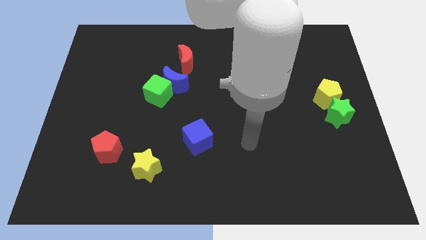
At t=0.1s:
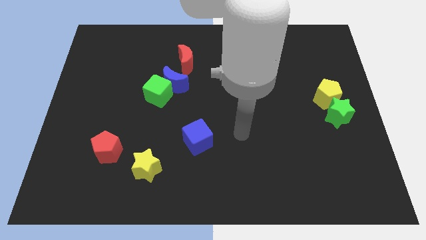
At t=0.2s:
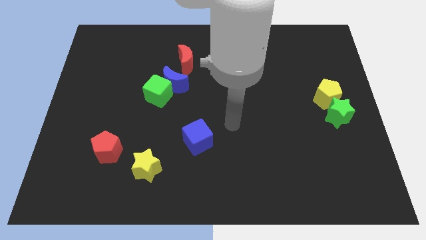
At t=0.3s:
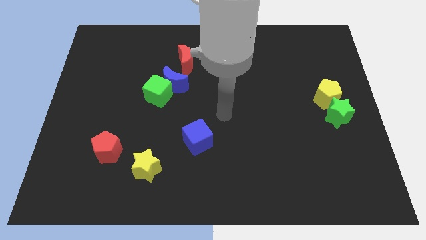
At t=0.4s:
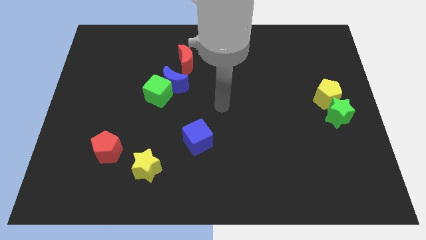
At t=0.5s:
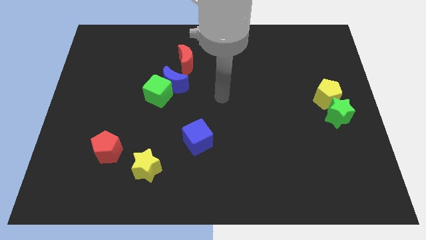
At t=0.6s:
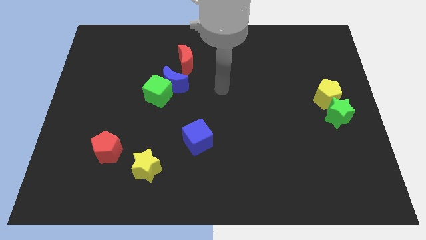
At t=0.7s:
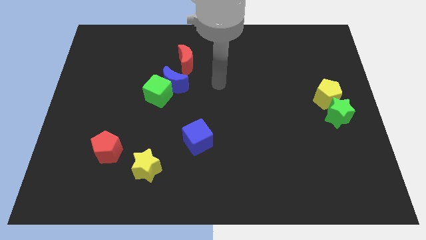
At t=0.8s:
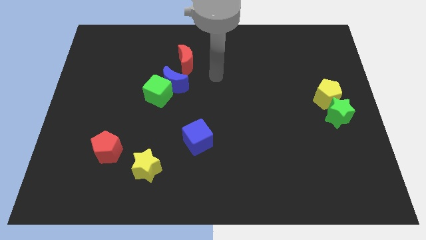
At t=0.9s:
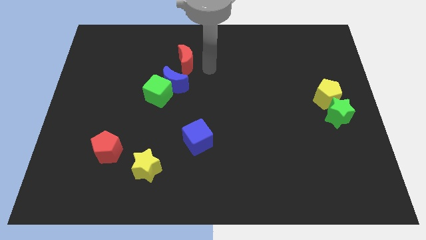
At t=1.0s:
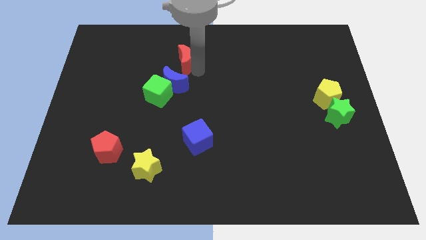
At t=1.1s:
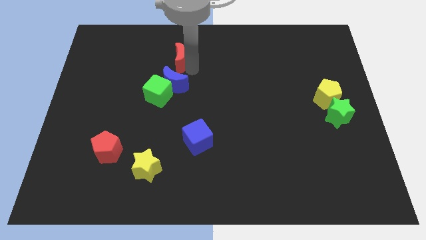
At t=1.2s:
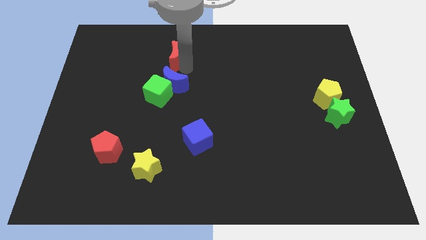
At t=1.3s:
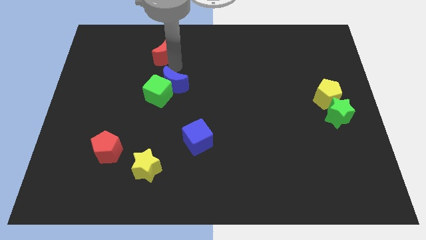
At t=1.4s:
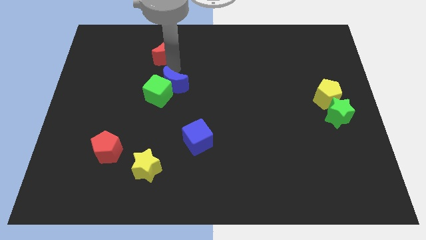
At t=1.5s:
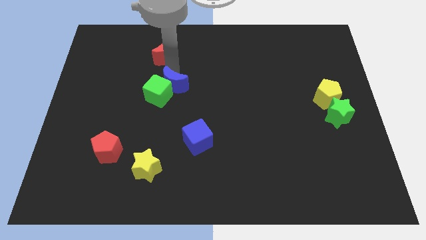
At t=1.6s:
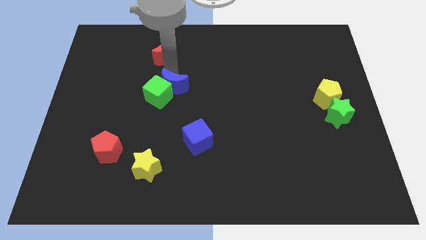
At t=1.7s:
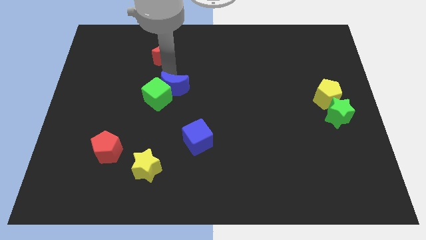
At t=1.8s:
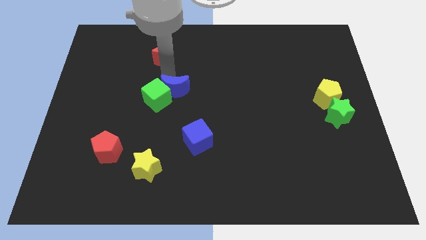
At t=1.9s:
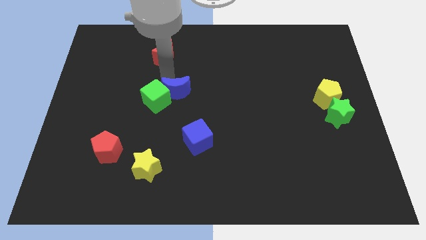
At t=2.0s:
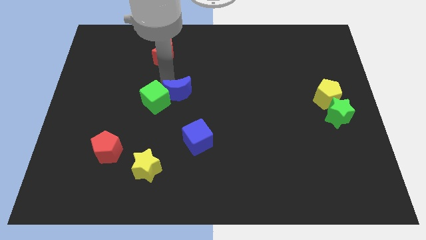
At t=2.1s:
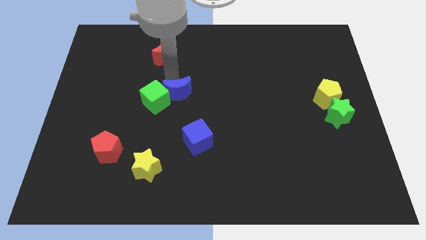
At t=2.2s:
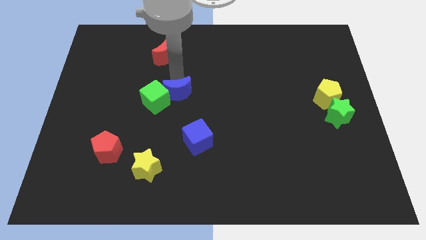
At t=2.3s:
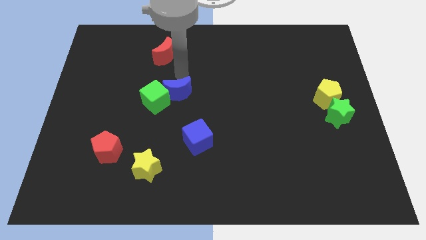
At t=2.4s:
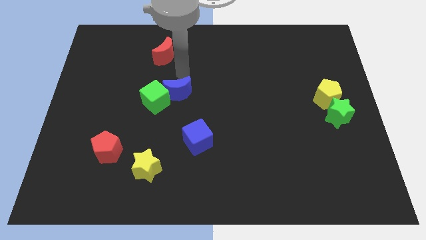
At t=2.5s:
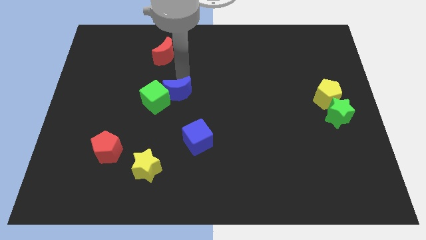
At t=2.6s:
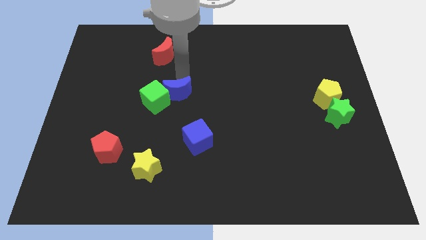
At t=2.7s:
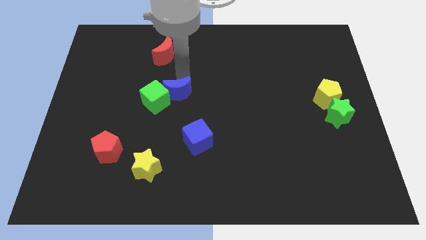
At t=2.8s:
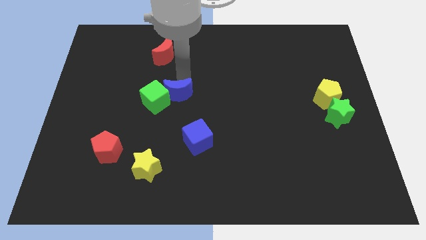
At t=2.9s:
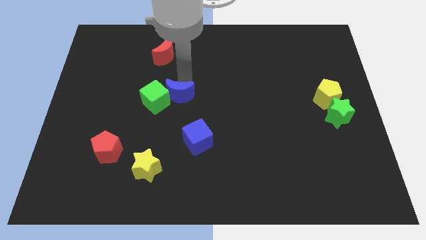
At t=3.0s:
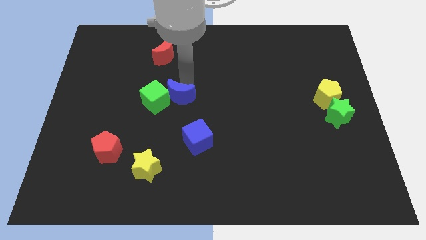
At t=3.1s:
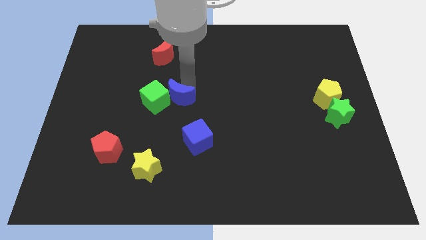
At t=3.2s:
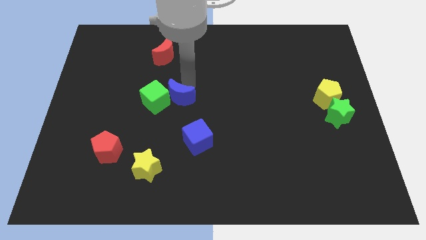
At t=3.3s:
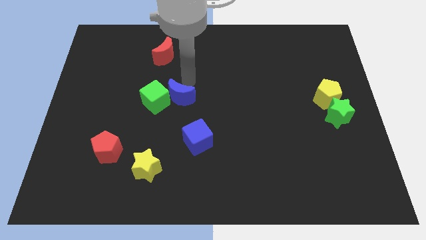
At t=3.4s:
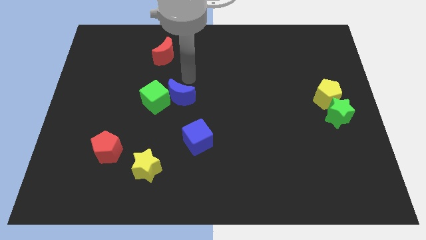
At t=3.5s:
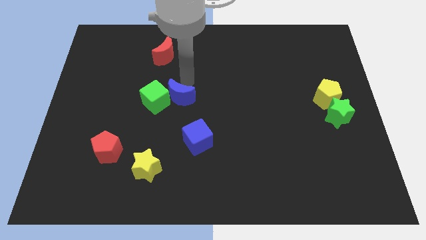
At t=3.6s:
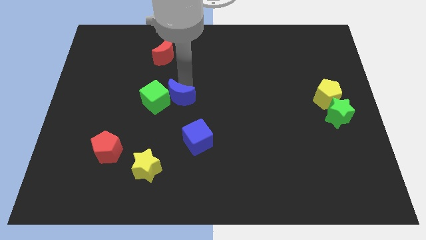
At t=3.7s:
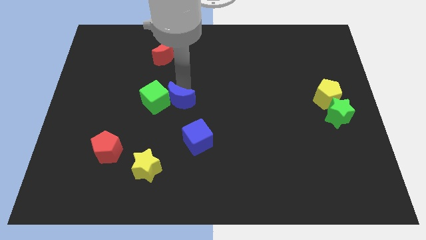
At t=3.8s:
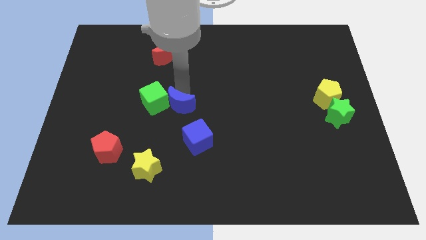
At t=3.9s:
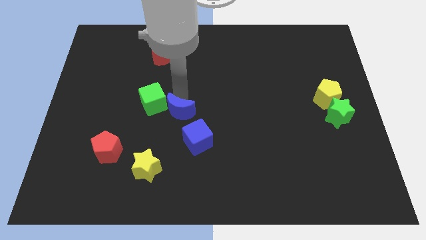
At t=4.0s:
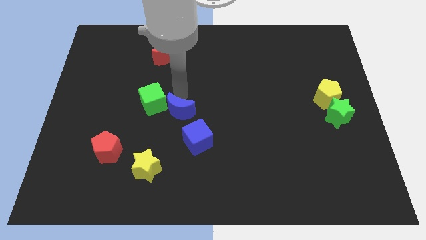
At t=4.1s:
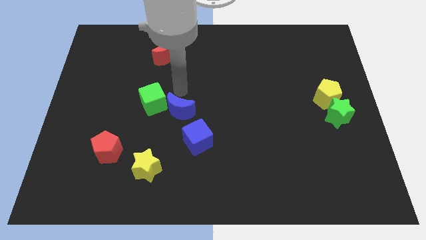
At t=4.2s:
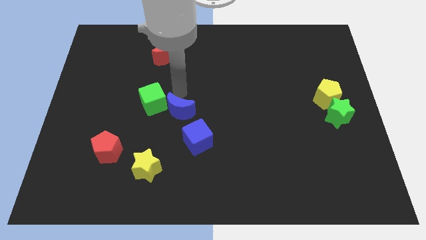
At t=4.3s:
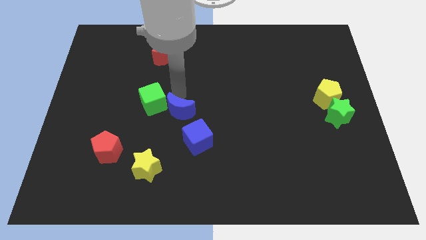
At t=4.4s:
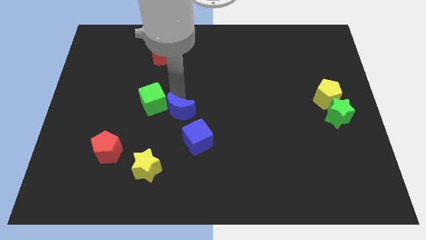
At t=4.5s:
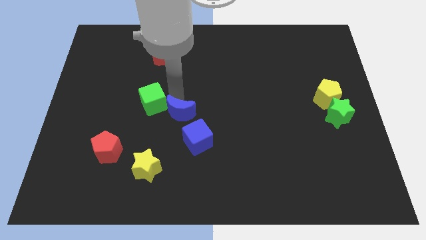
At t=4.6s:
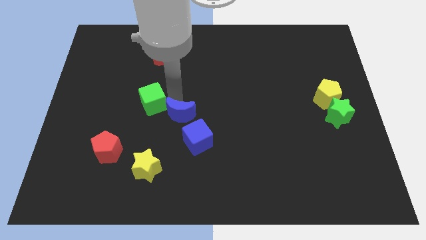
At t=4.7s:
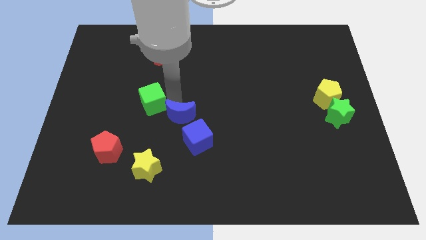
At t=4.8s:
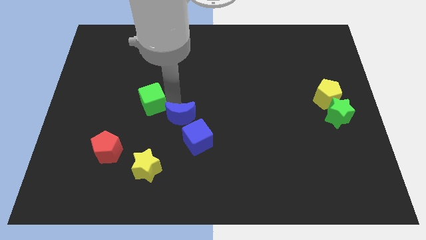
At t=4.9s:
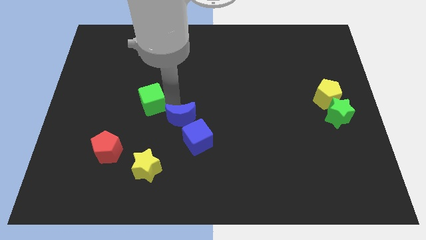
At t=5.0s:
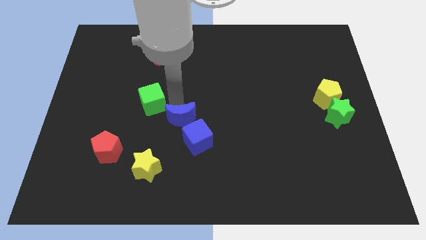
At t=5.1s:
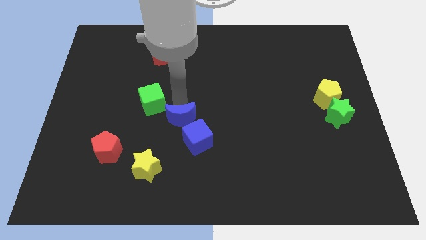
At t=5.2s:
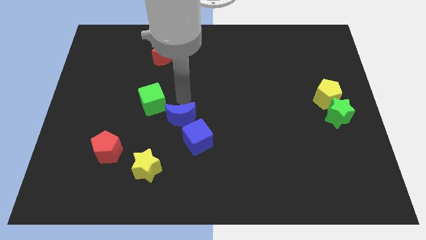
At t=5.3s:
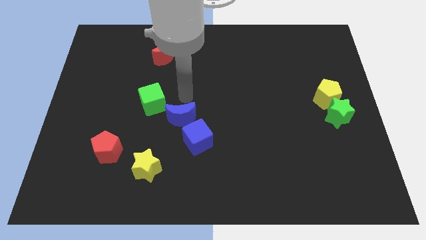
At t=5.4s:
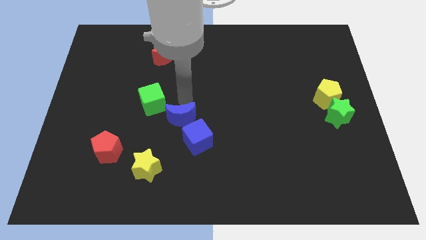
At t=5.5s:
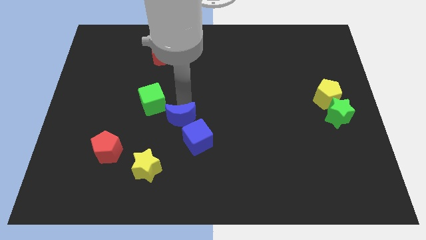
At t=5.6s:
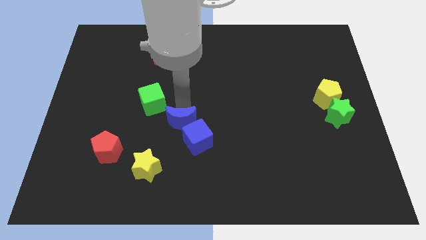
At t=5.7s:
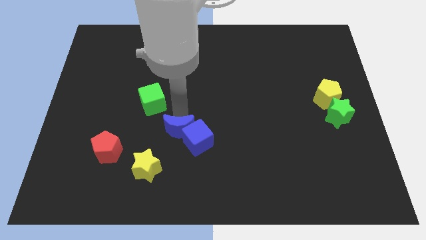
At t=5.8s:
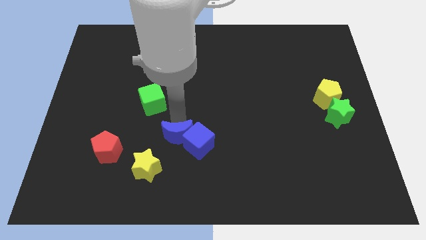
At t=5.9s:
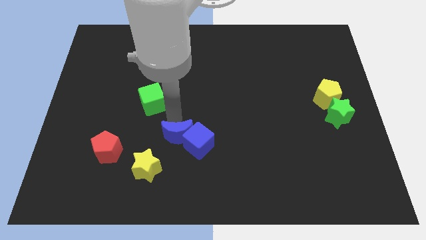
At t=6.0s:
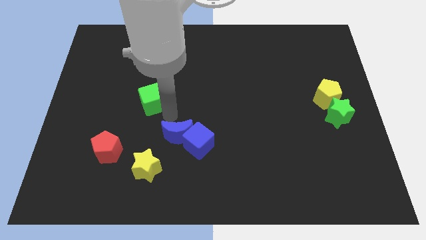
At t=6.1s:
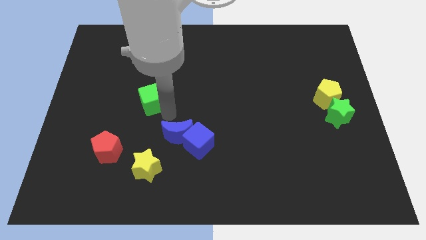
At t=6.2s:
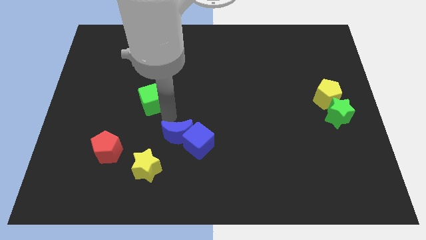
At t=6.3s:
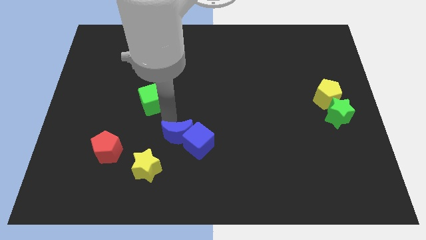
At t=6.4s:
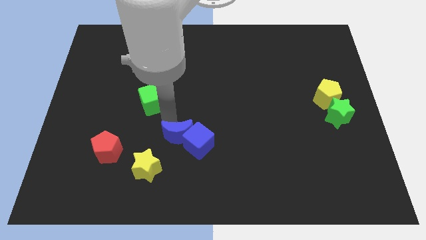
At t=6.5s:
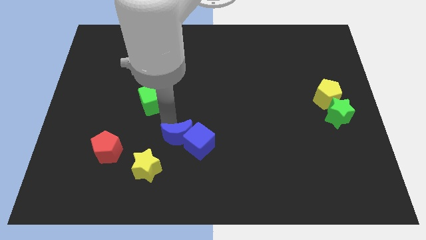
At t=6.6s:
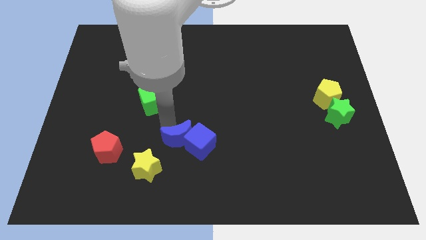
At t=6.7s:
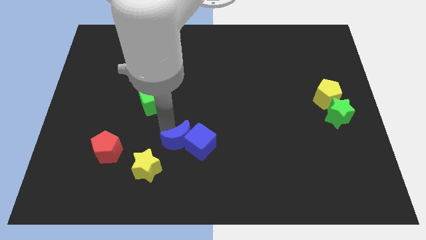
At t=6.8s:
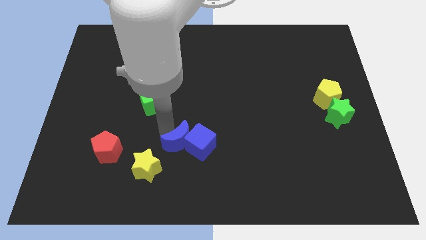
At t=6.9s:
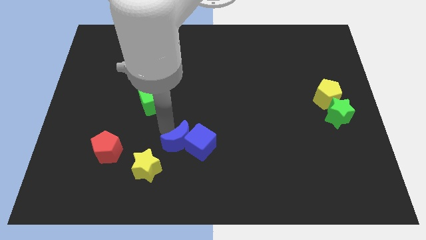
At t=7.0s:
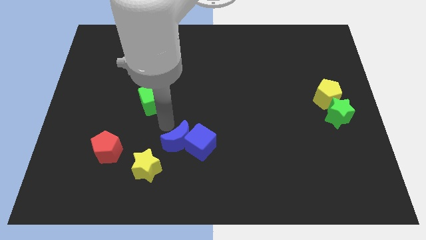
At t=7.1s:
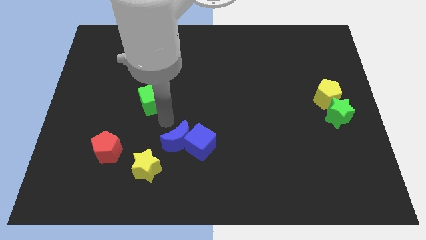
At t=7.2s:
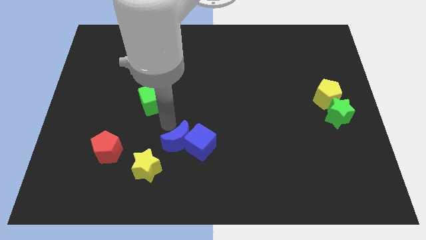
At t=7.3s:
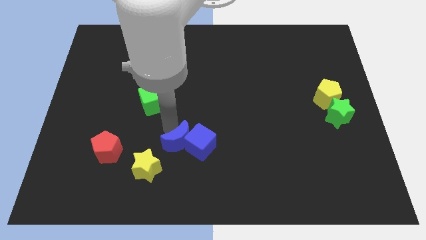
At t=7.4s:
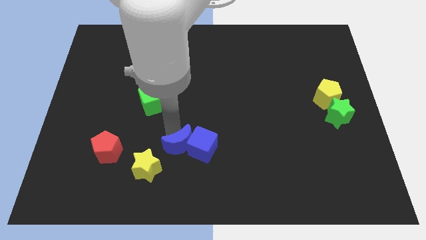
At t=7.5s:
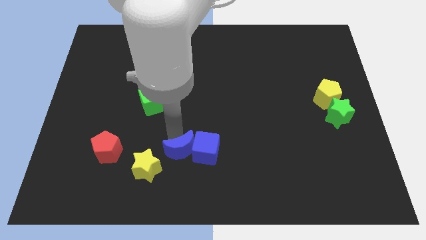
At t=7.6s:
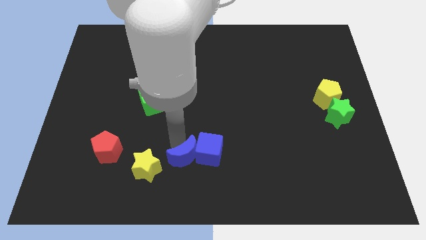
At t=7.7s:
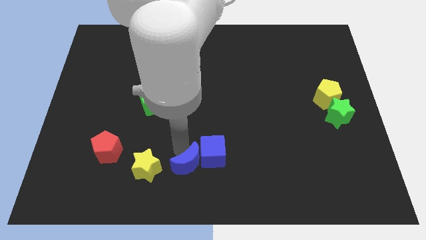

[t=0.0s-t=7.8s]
move the blue moon to the bottom
